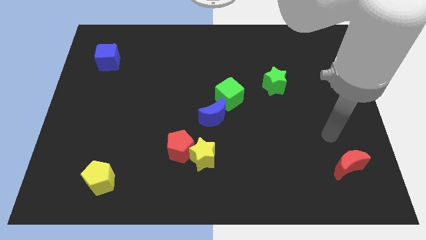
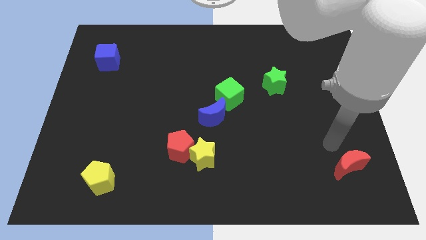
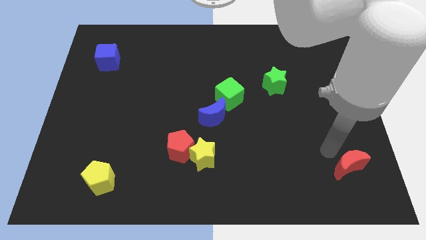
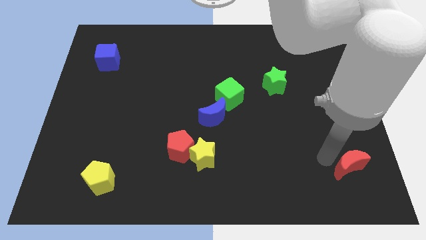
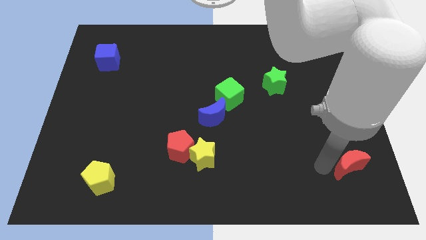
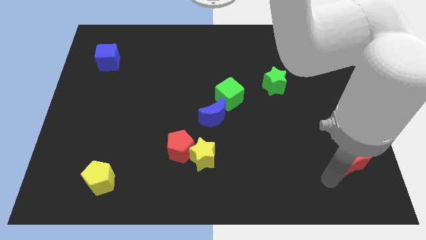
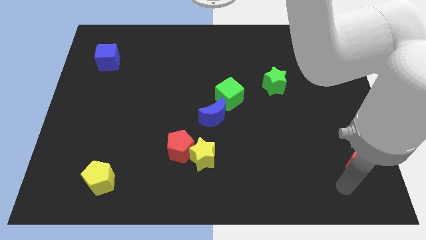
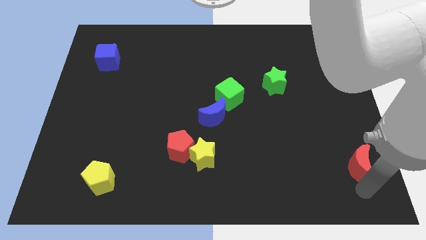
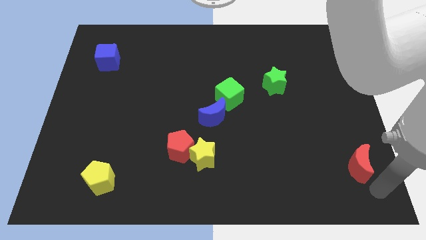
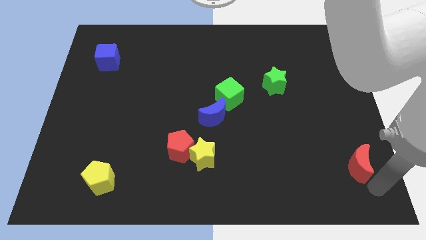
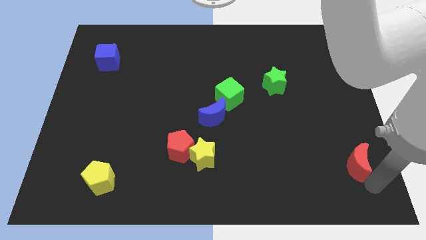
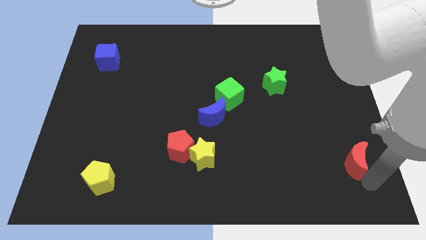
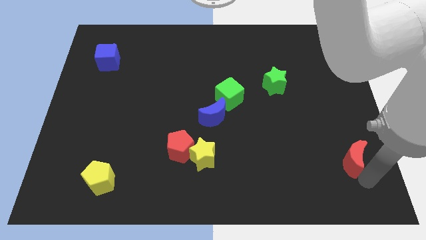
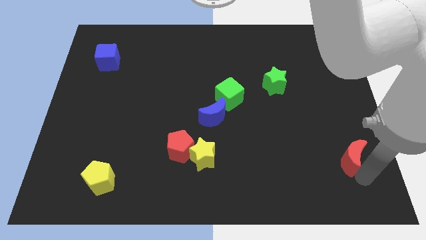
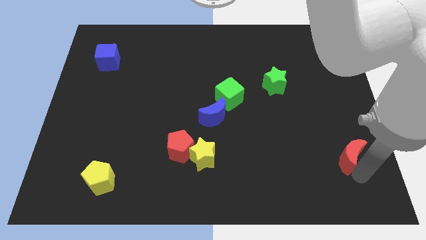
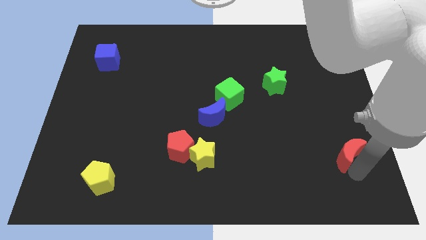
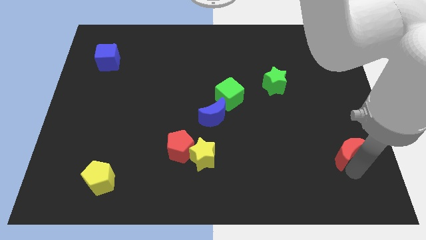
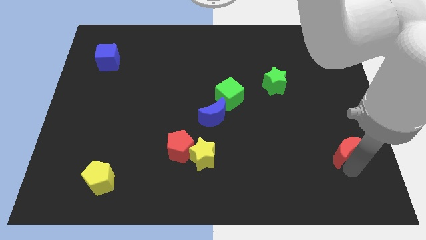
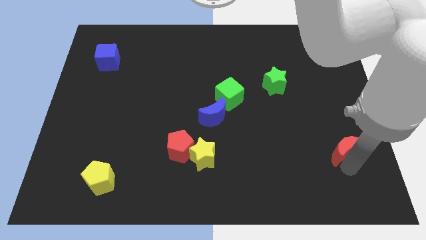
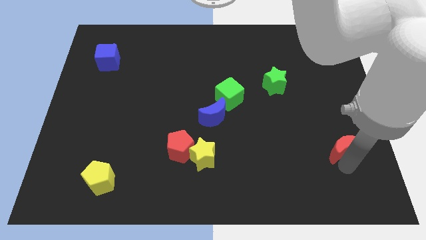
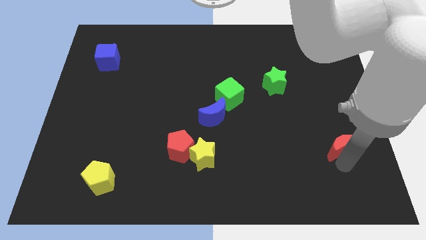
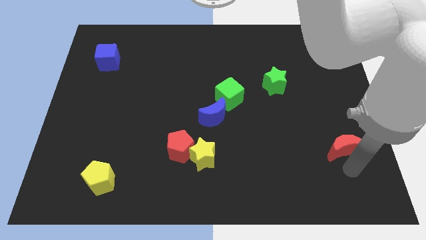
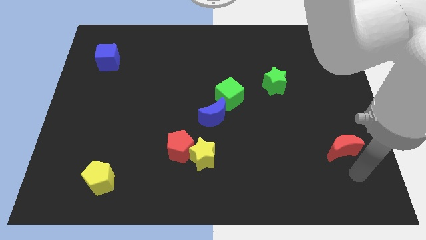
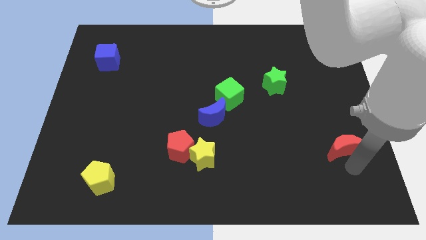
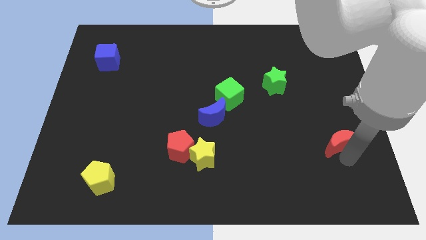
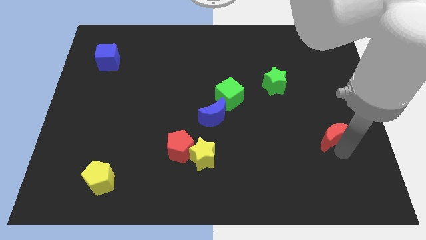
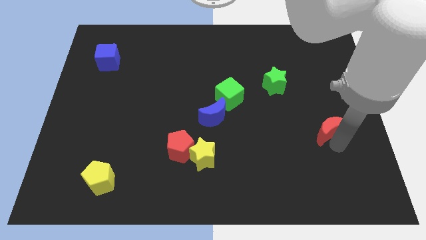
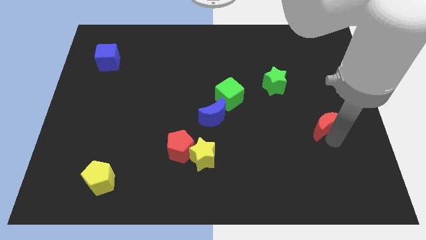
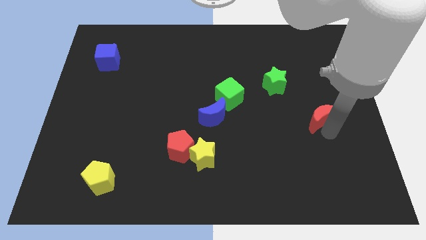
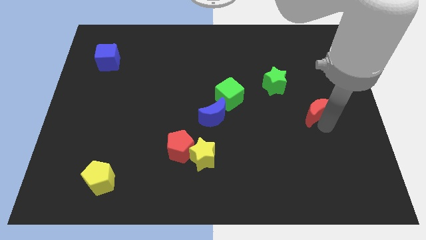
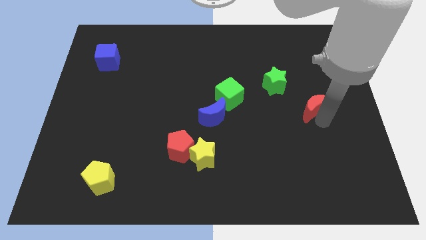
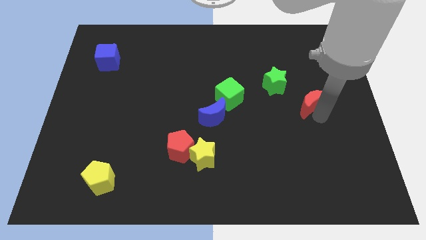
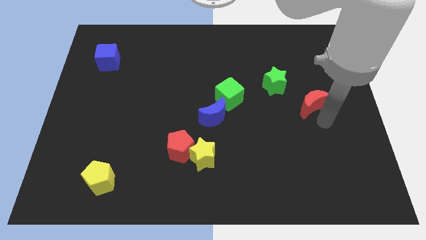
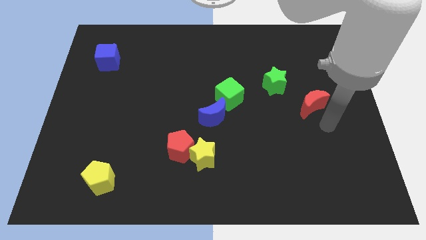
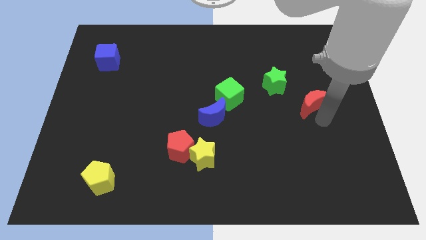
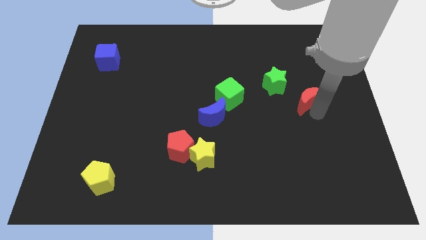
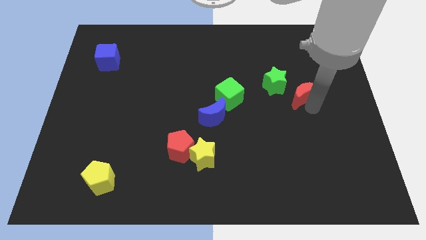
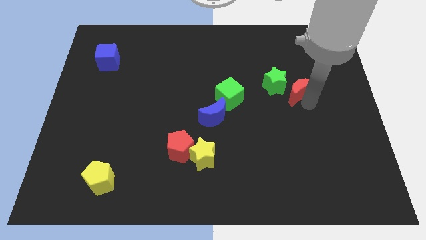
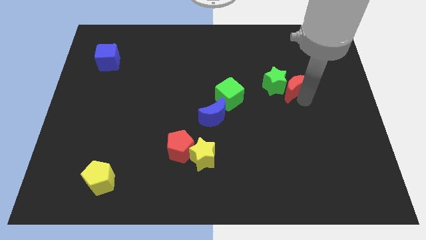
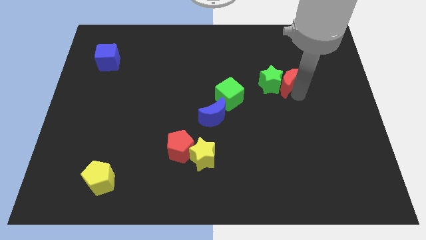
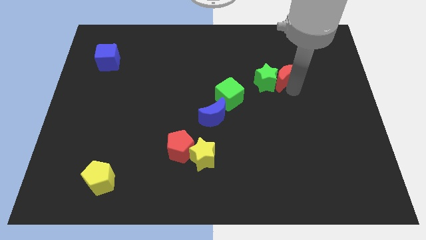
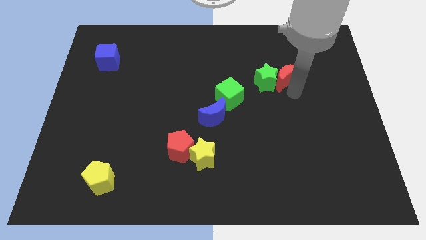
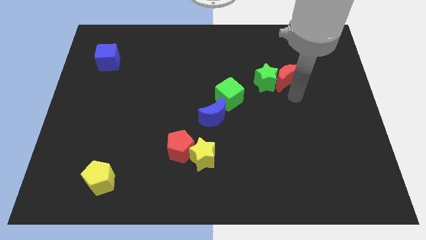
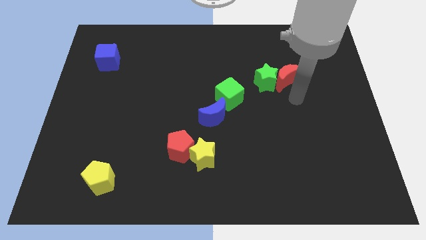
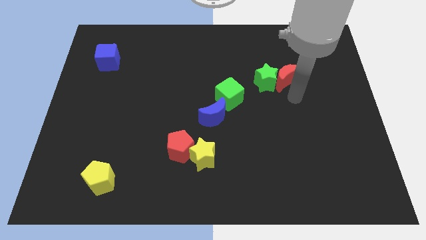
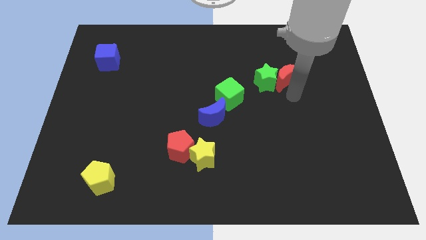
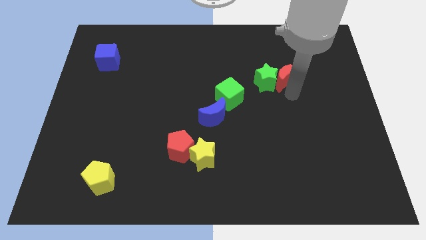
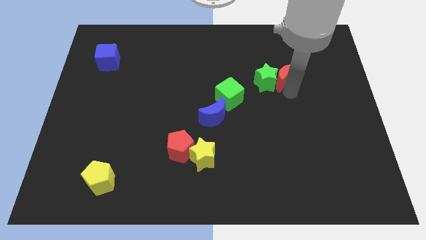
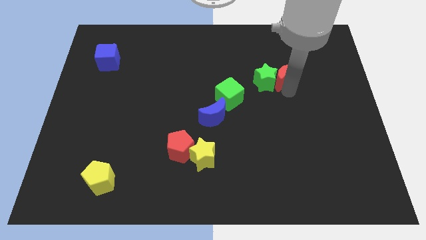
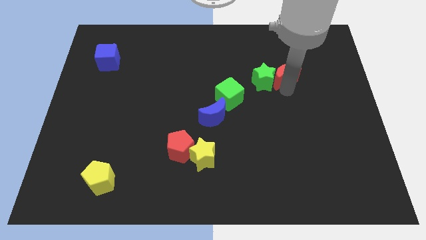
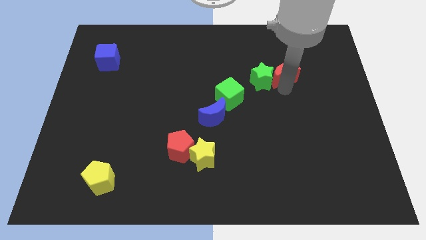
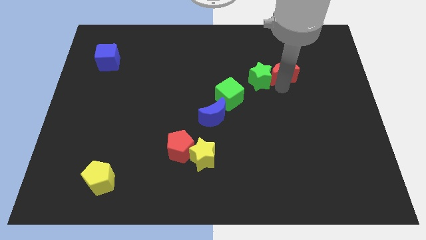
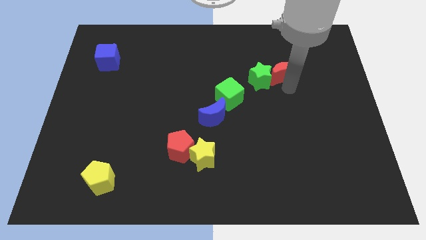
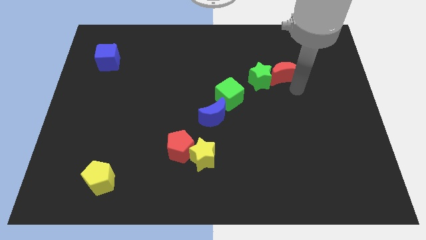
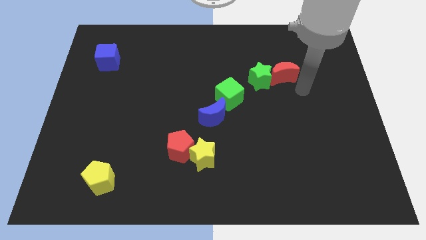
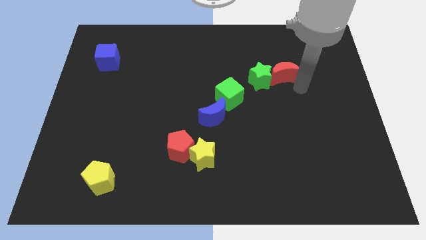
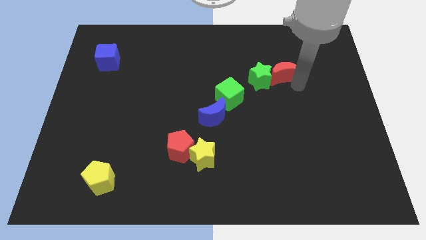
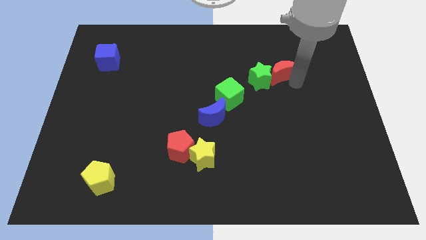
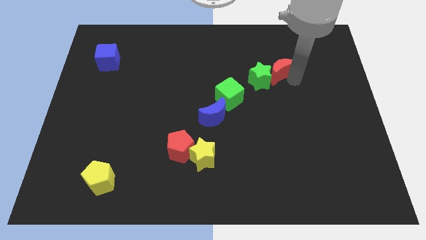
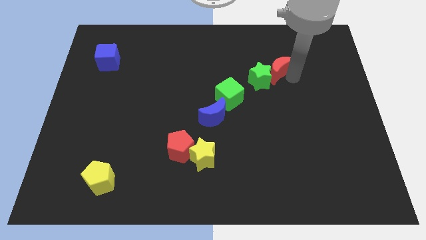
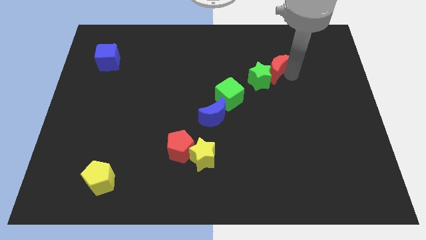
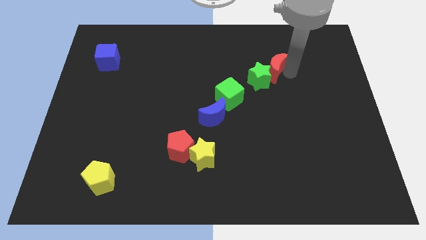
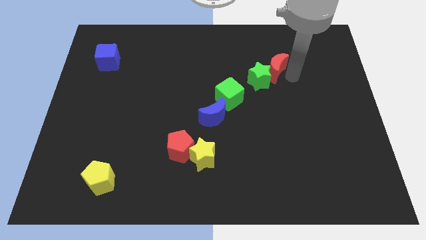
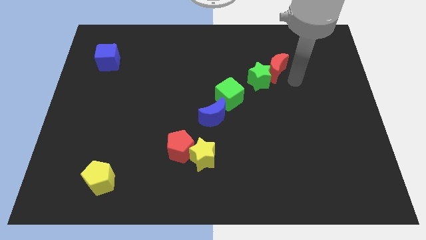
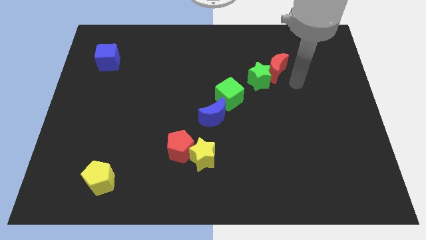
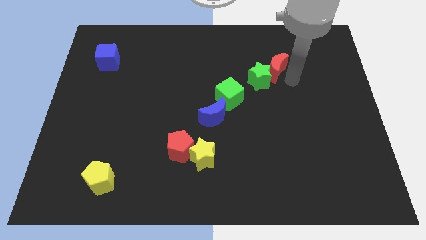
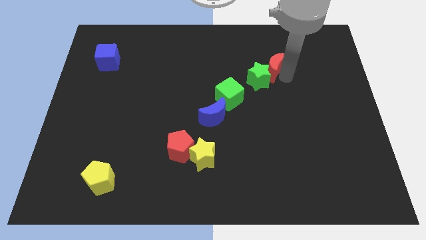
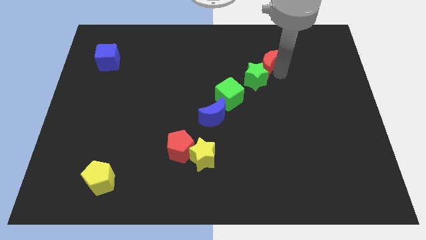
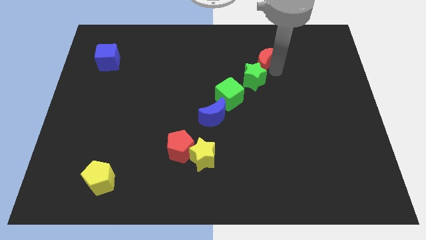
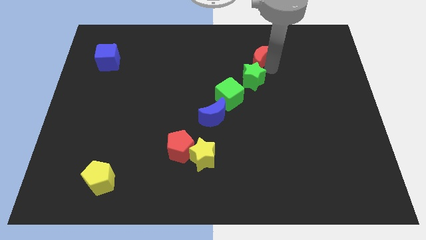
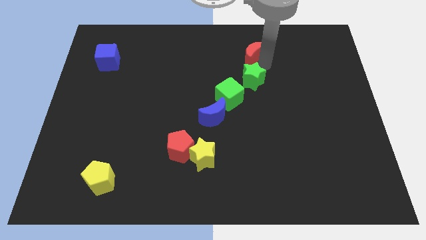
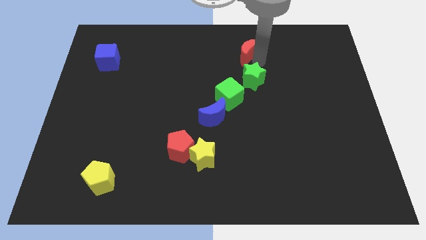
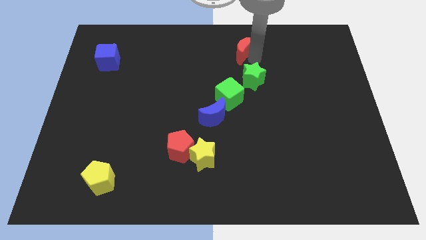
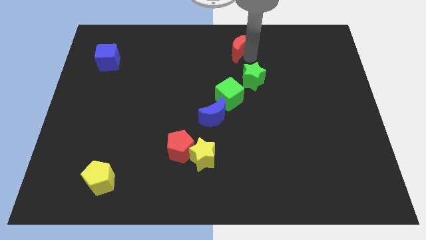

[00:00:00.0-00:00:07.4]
put the red moon to the top side
